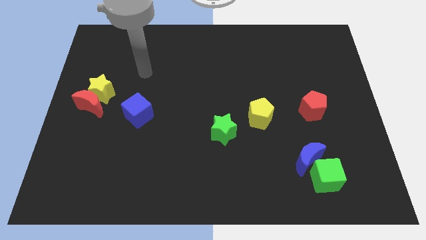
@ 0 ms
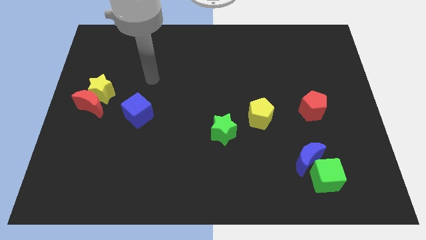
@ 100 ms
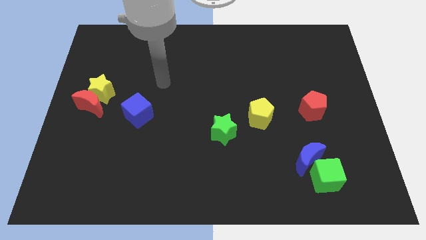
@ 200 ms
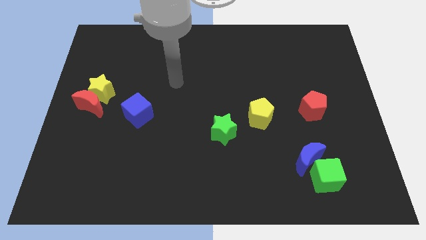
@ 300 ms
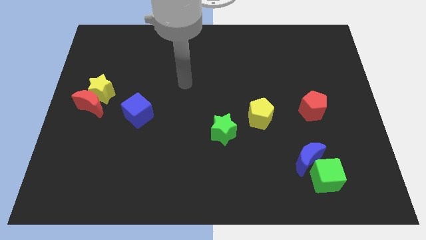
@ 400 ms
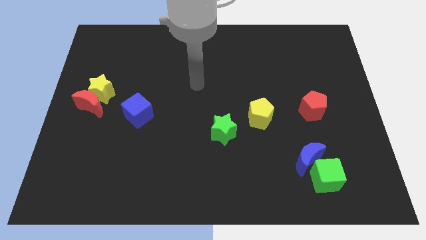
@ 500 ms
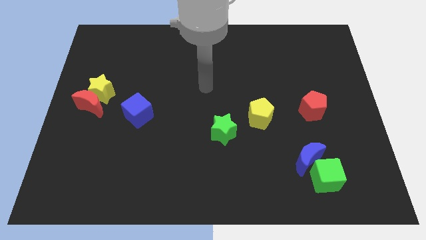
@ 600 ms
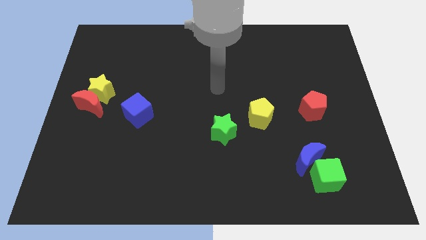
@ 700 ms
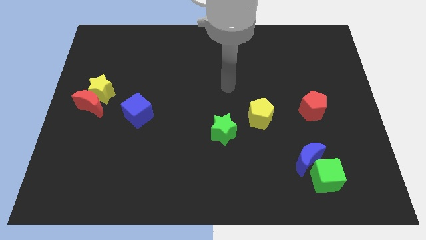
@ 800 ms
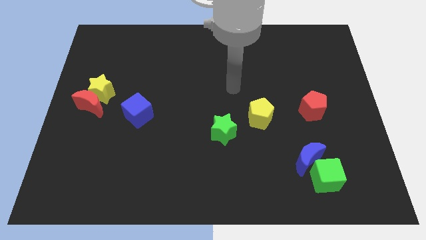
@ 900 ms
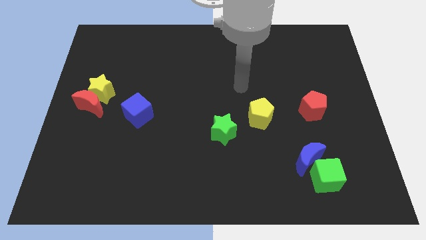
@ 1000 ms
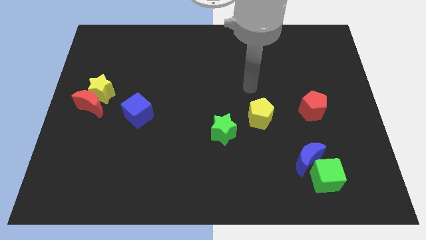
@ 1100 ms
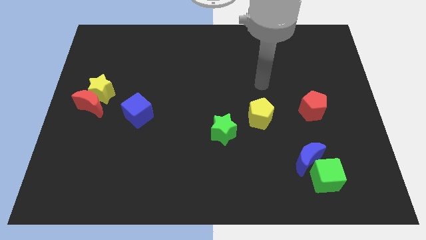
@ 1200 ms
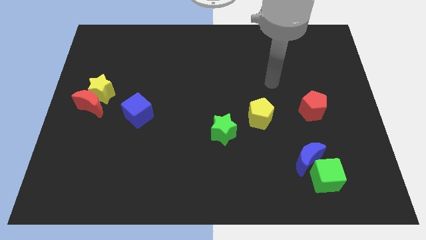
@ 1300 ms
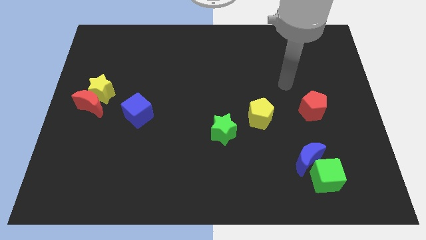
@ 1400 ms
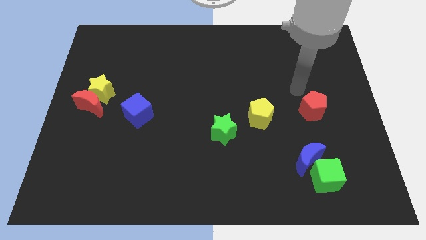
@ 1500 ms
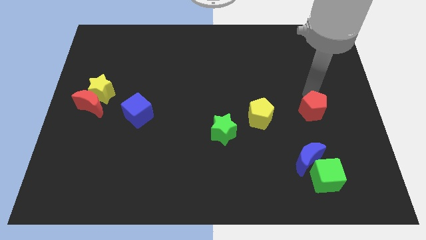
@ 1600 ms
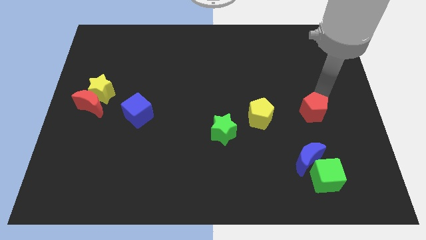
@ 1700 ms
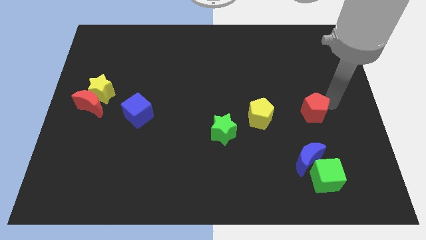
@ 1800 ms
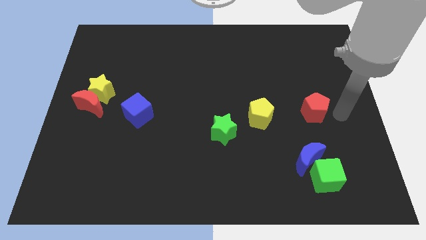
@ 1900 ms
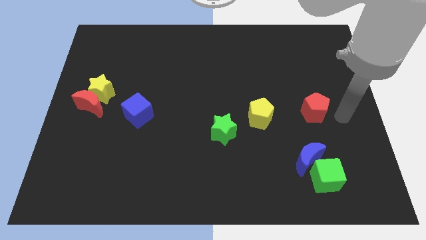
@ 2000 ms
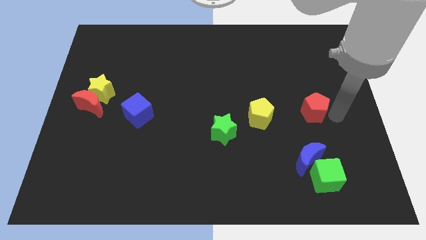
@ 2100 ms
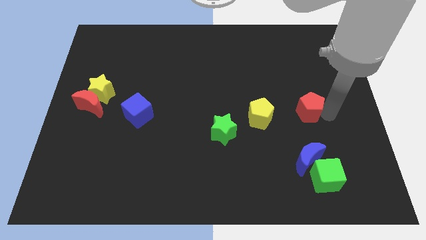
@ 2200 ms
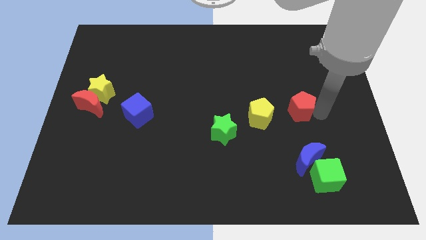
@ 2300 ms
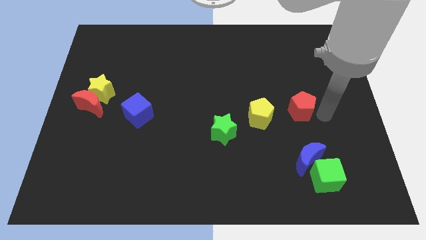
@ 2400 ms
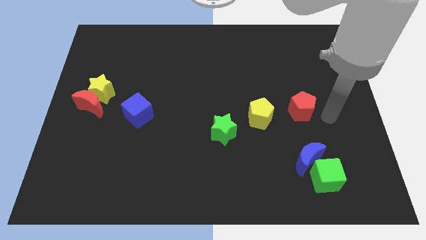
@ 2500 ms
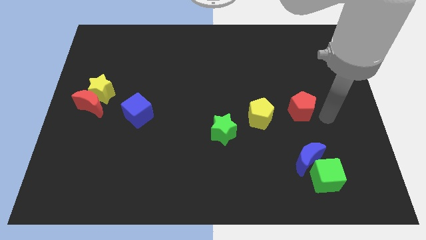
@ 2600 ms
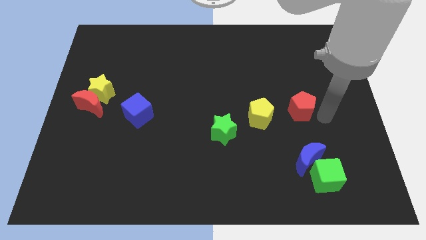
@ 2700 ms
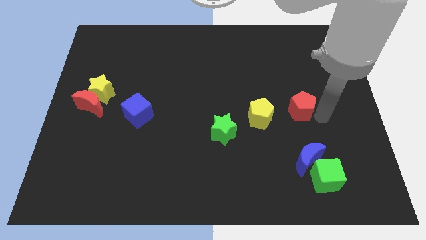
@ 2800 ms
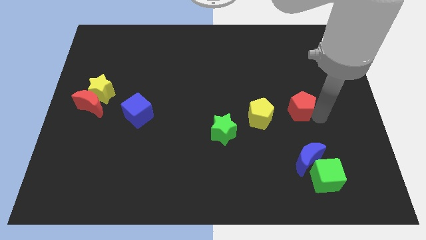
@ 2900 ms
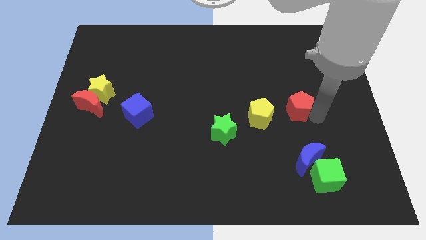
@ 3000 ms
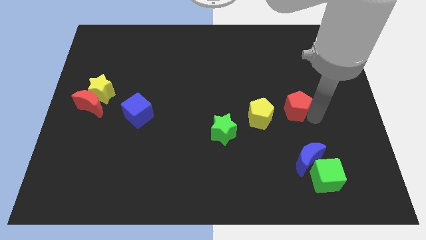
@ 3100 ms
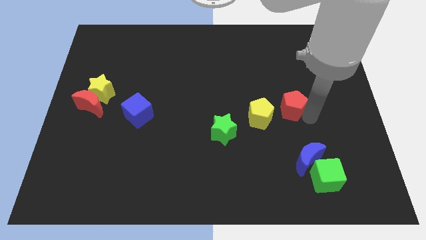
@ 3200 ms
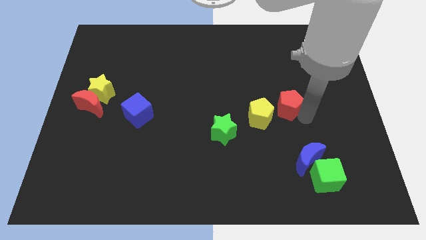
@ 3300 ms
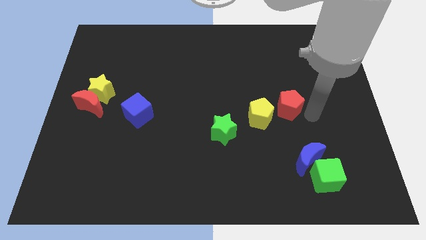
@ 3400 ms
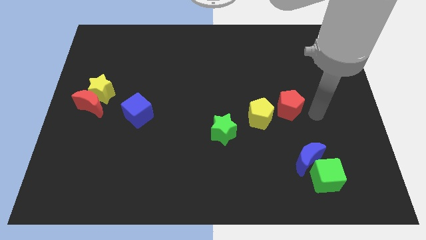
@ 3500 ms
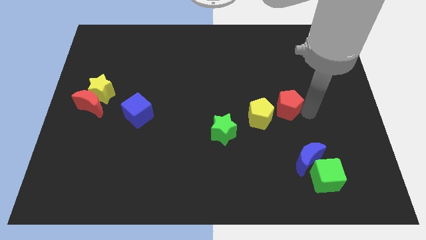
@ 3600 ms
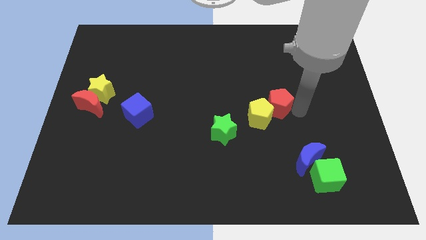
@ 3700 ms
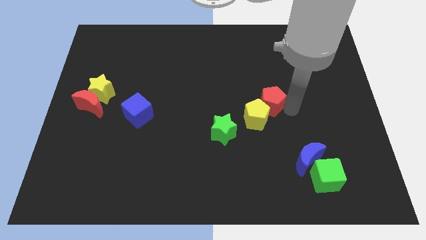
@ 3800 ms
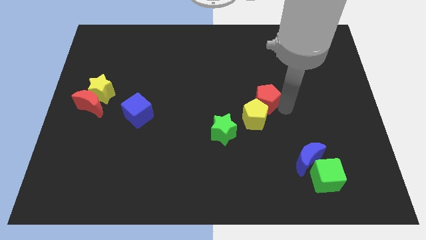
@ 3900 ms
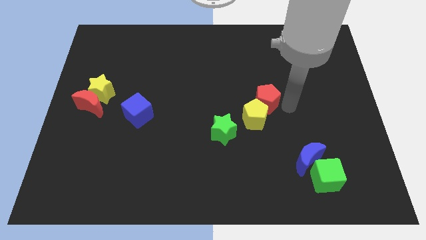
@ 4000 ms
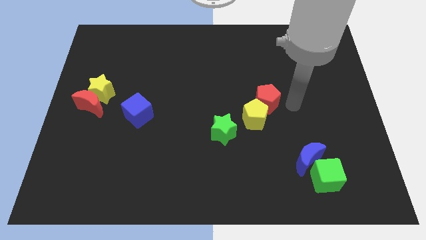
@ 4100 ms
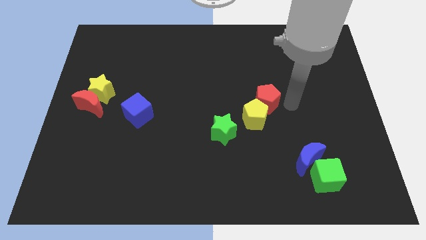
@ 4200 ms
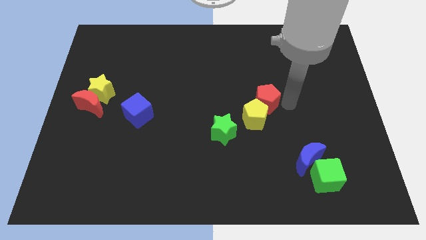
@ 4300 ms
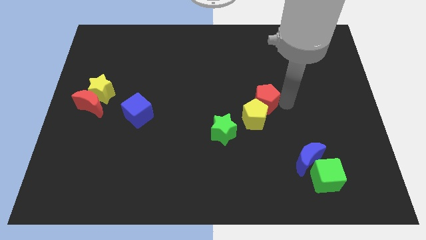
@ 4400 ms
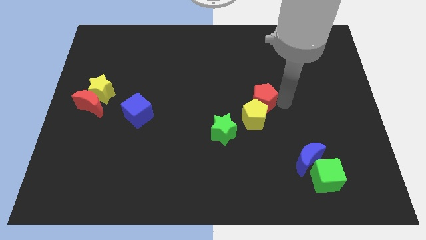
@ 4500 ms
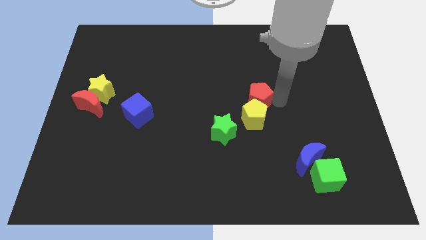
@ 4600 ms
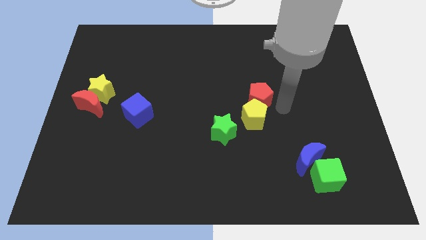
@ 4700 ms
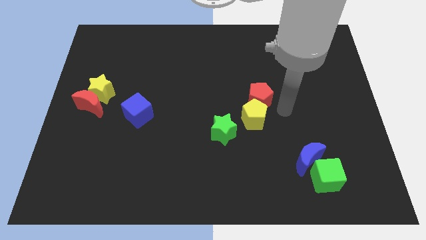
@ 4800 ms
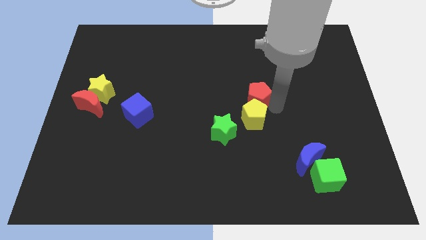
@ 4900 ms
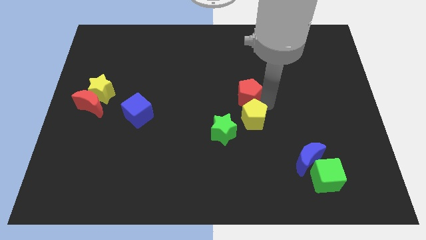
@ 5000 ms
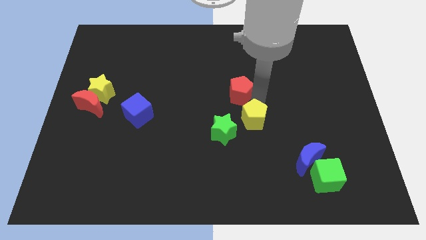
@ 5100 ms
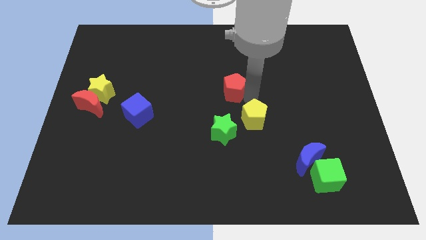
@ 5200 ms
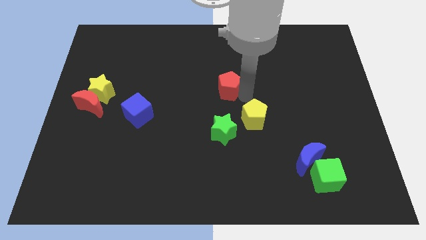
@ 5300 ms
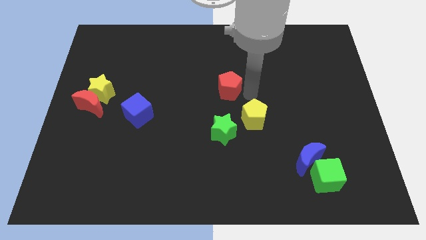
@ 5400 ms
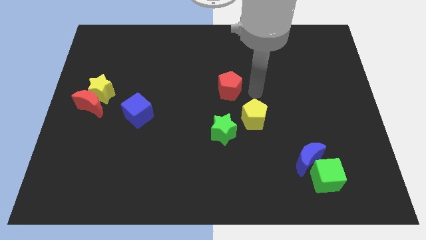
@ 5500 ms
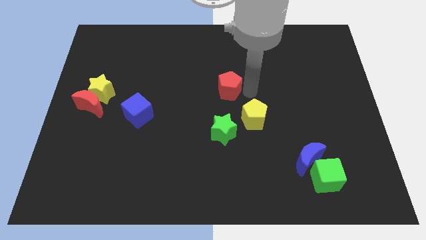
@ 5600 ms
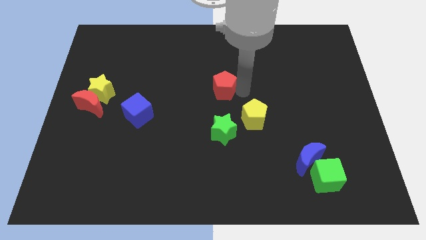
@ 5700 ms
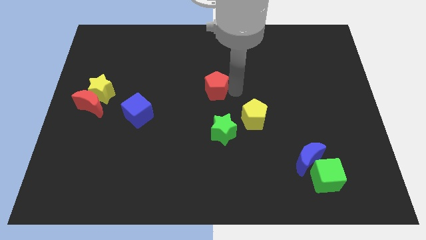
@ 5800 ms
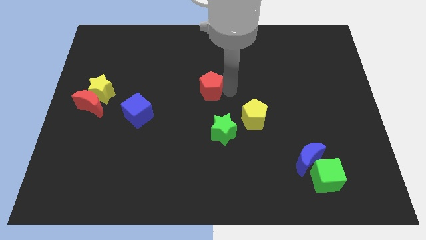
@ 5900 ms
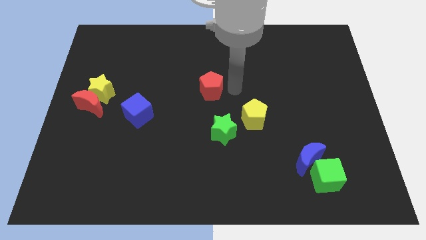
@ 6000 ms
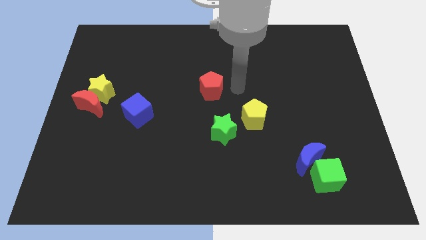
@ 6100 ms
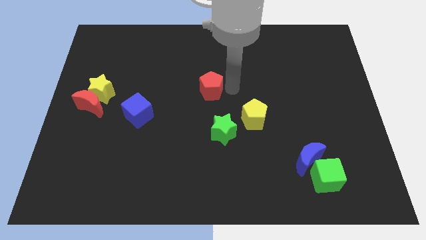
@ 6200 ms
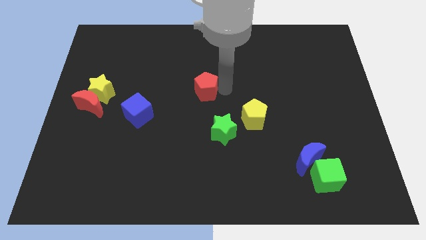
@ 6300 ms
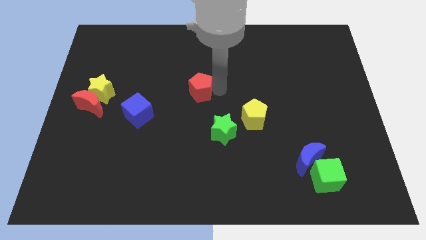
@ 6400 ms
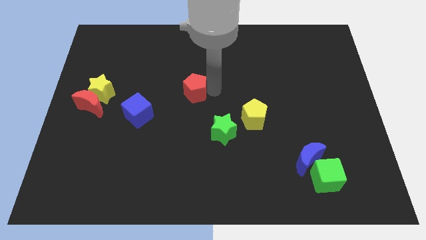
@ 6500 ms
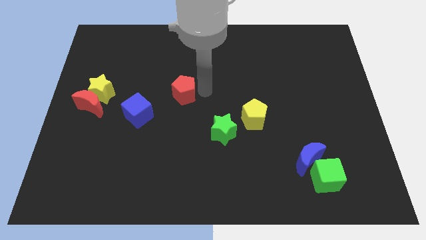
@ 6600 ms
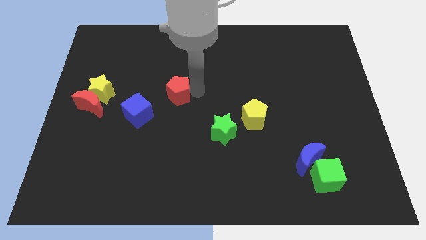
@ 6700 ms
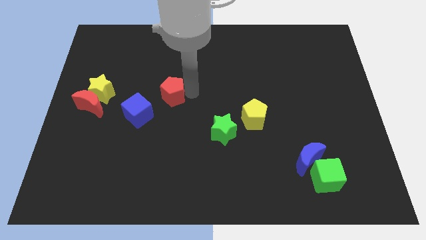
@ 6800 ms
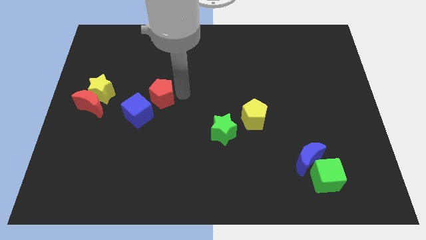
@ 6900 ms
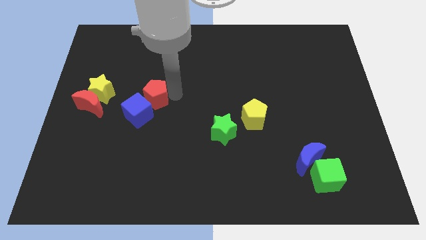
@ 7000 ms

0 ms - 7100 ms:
move the red pentagon to the right side of the red moon

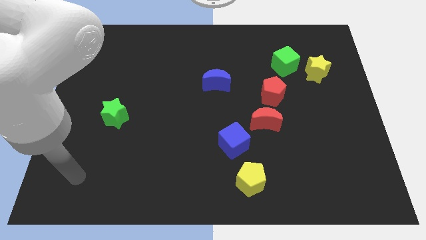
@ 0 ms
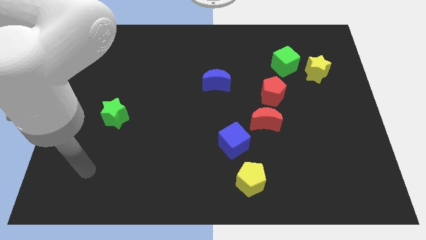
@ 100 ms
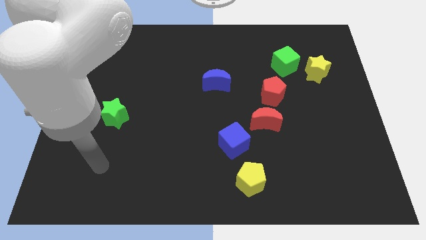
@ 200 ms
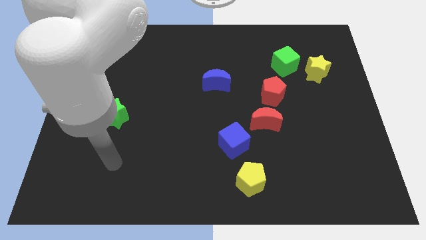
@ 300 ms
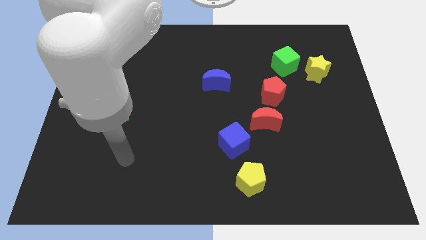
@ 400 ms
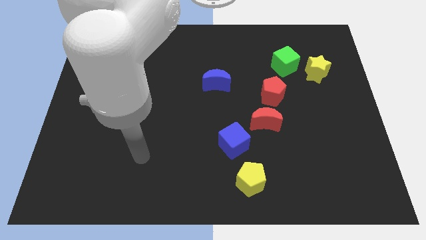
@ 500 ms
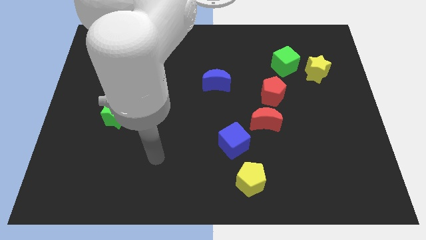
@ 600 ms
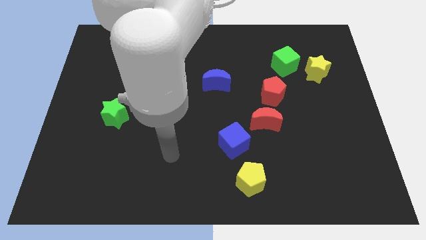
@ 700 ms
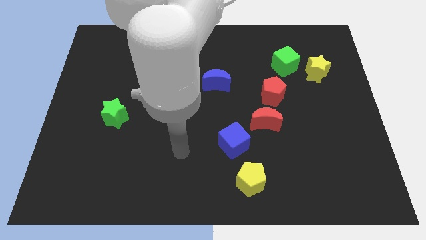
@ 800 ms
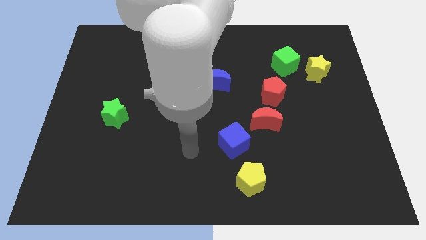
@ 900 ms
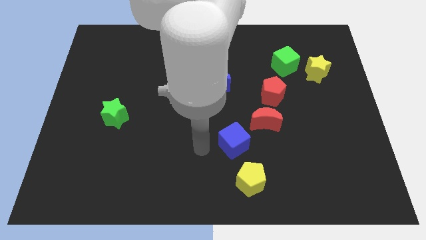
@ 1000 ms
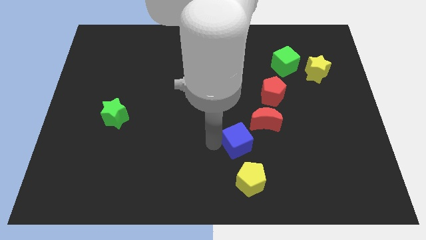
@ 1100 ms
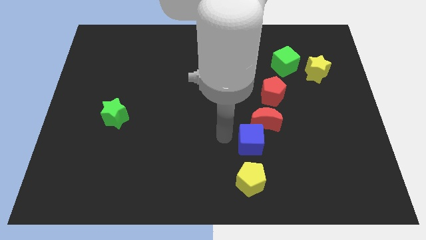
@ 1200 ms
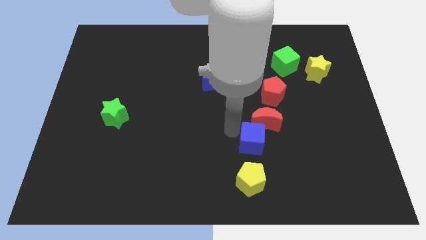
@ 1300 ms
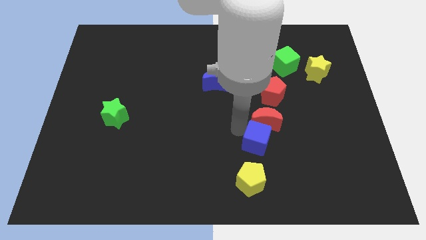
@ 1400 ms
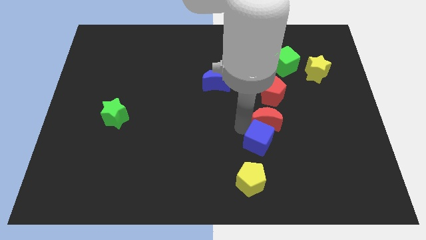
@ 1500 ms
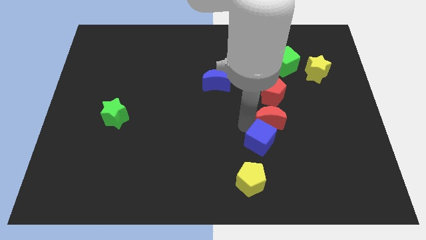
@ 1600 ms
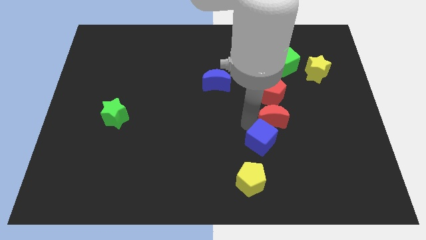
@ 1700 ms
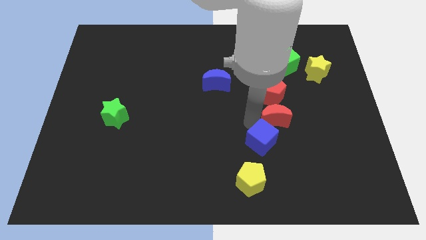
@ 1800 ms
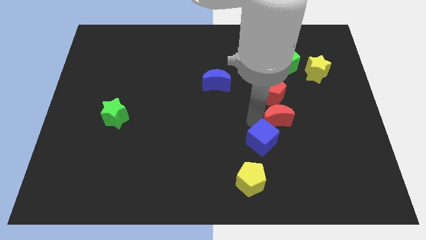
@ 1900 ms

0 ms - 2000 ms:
slide the red moon diagonally down and to the right of the red pentagon
